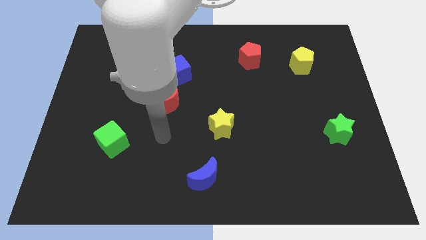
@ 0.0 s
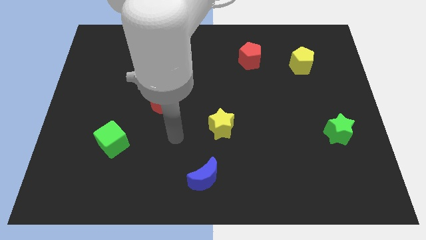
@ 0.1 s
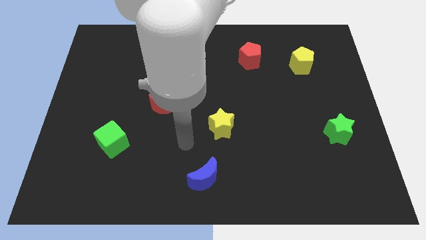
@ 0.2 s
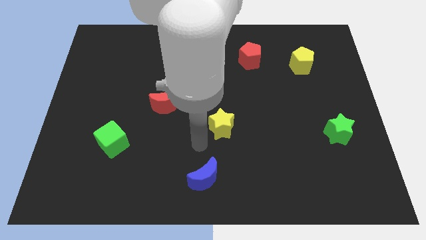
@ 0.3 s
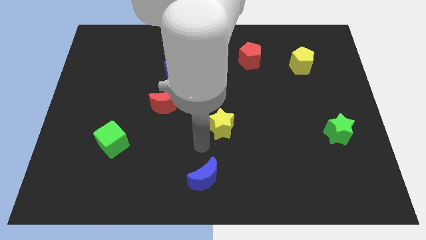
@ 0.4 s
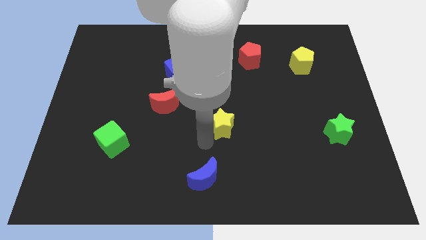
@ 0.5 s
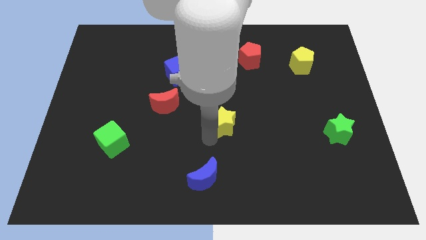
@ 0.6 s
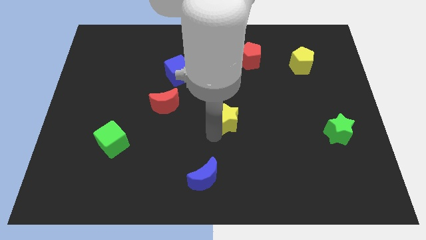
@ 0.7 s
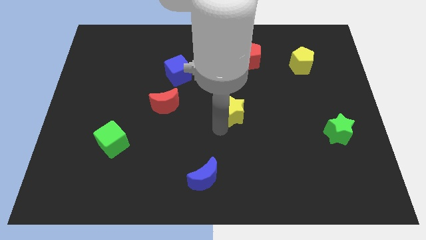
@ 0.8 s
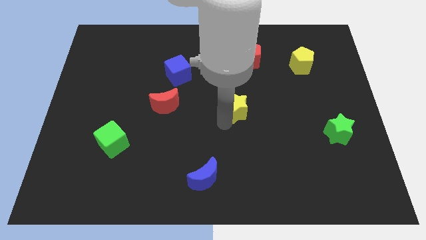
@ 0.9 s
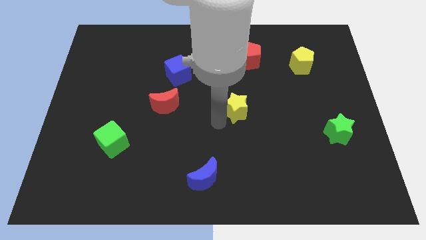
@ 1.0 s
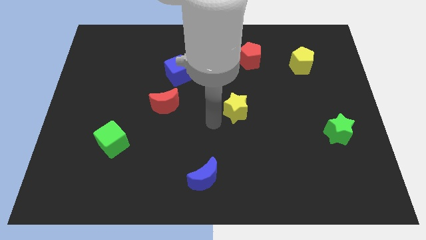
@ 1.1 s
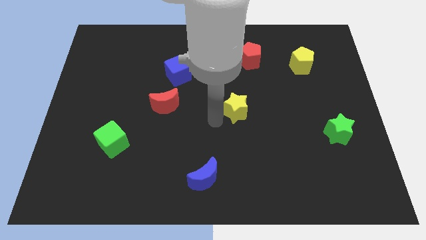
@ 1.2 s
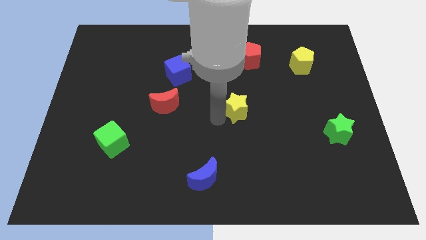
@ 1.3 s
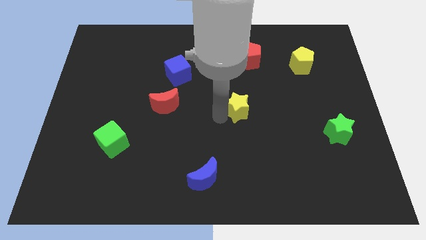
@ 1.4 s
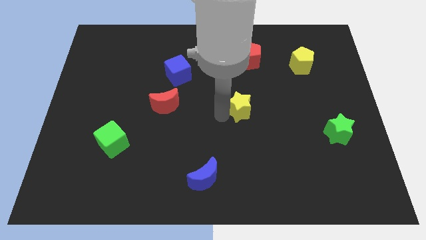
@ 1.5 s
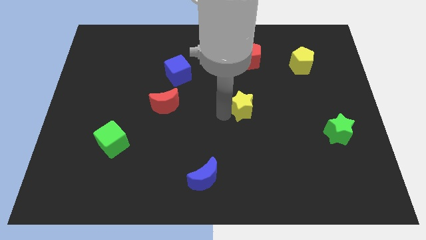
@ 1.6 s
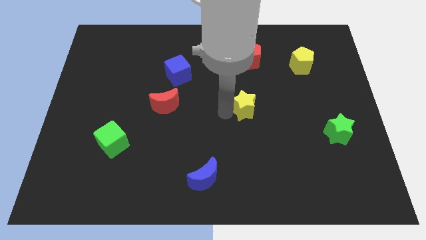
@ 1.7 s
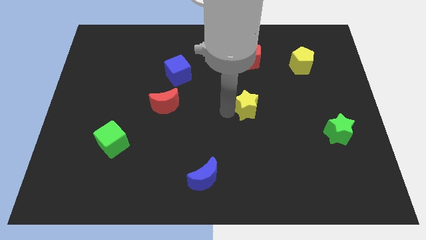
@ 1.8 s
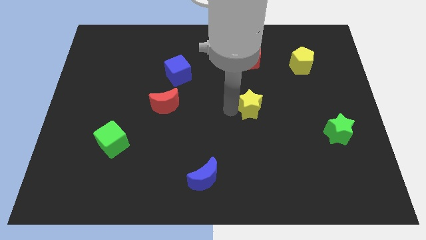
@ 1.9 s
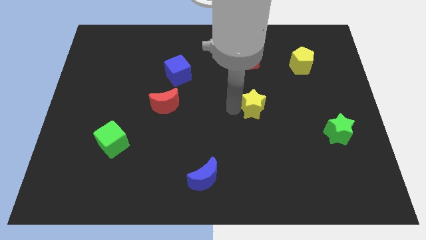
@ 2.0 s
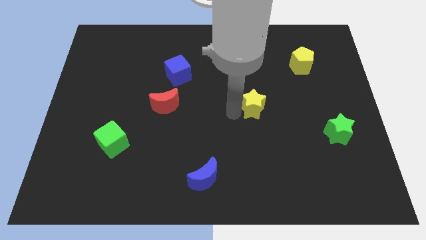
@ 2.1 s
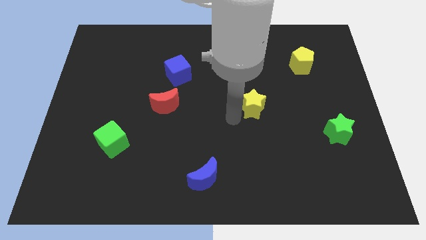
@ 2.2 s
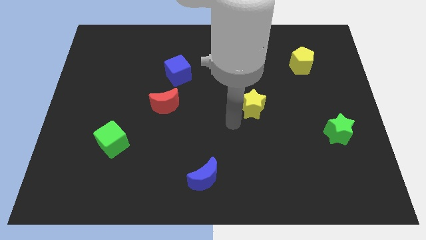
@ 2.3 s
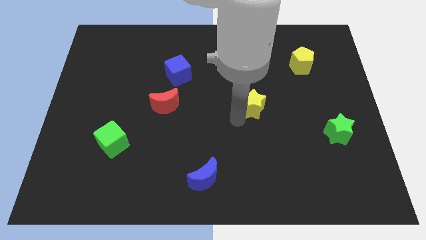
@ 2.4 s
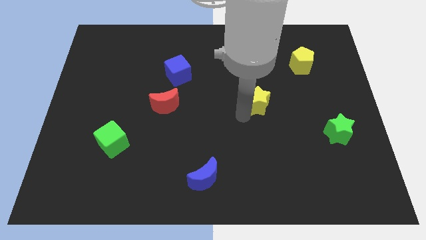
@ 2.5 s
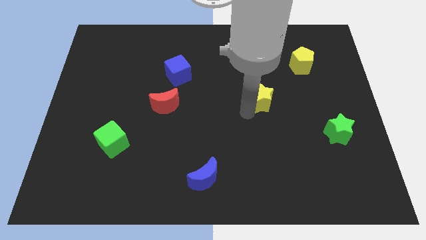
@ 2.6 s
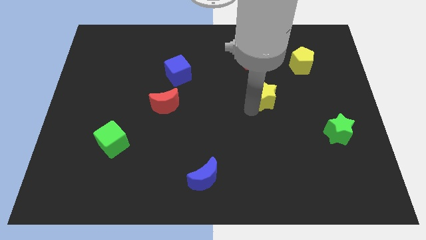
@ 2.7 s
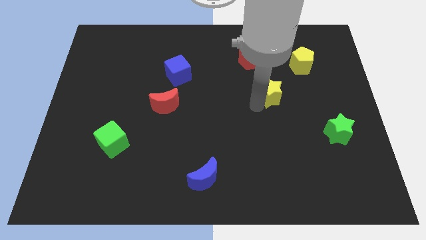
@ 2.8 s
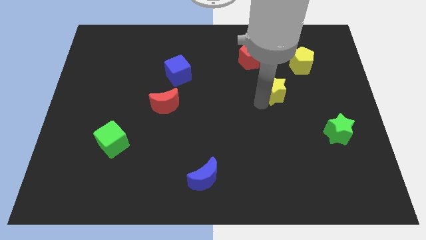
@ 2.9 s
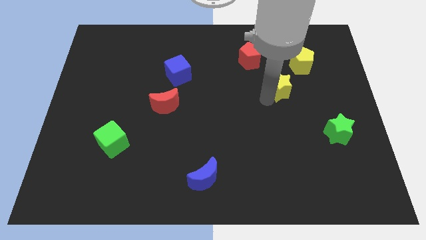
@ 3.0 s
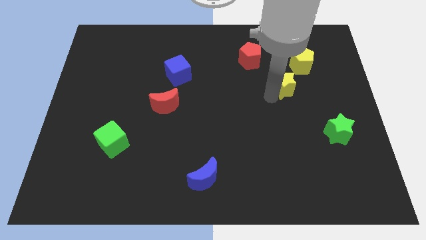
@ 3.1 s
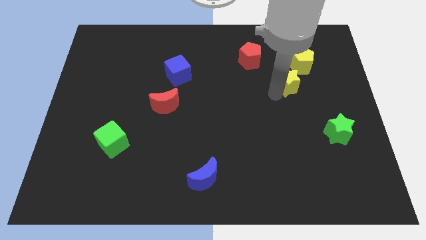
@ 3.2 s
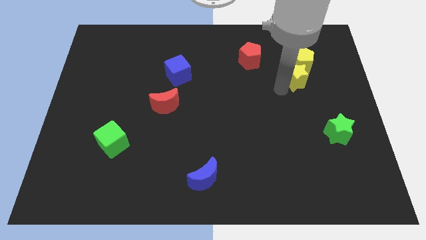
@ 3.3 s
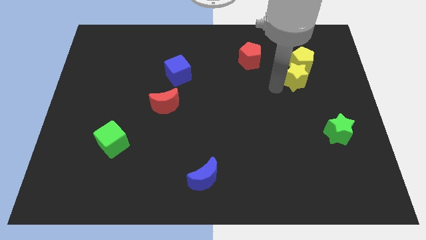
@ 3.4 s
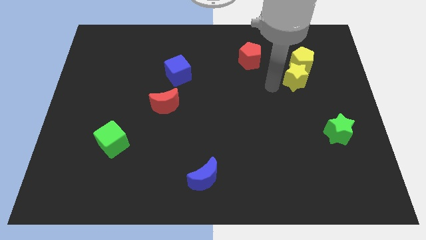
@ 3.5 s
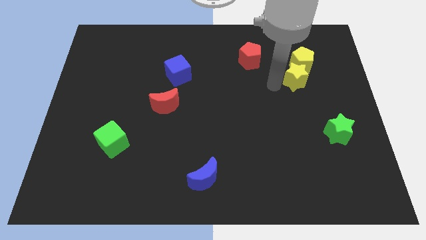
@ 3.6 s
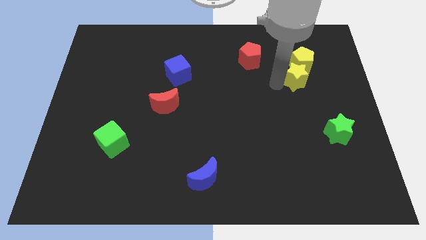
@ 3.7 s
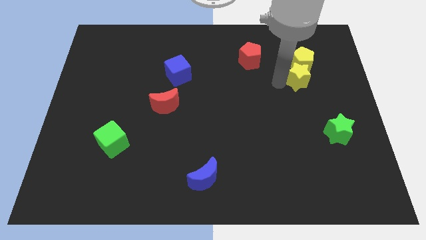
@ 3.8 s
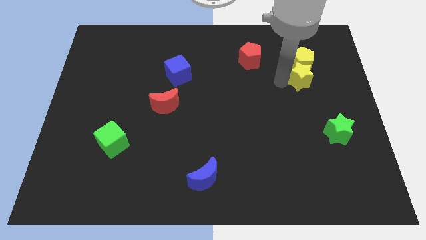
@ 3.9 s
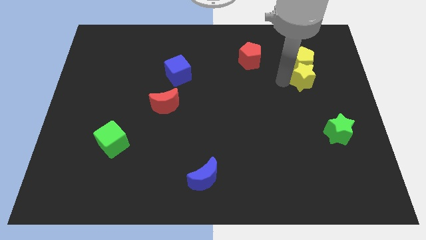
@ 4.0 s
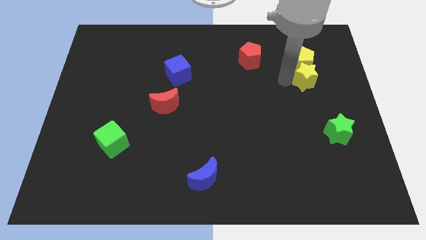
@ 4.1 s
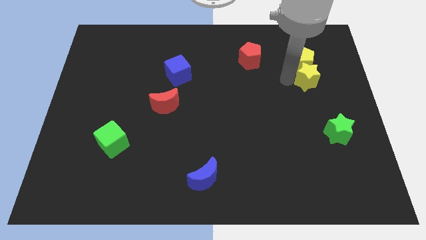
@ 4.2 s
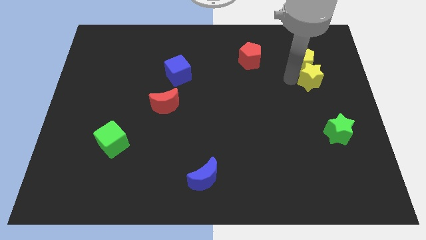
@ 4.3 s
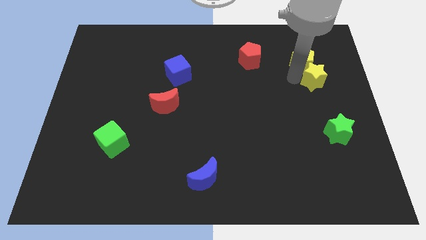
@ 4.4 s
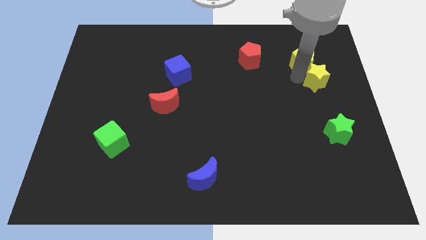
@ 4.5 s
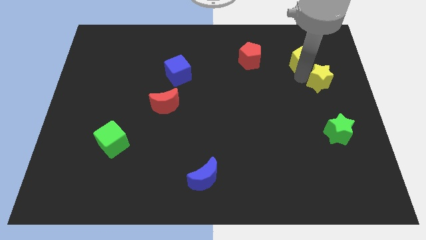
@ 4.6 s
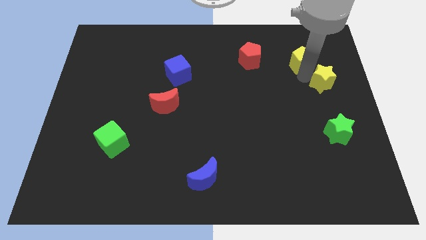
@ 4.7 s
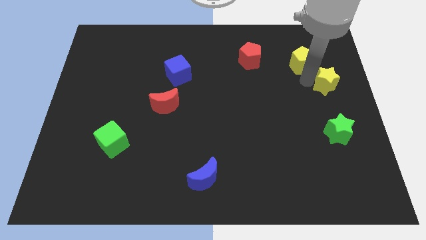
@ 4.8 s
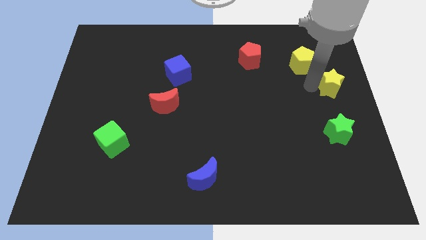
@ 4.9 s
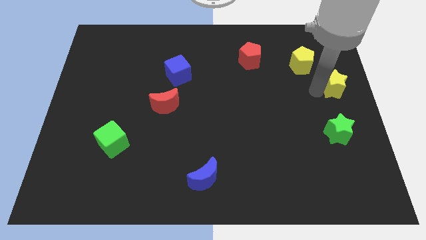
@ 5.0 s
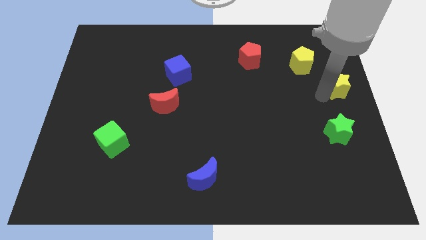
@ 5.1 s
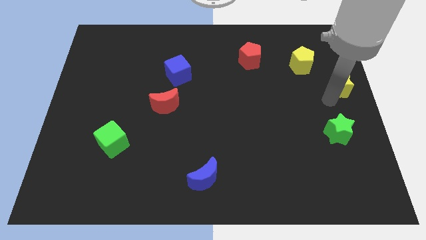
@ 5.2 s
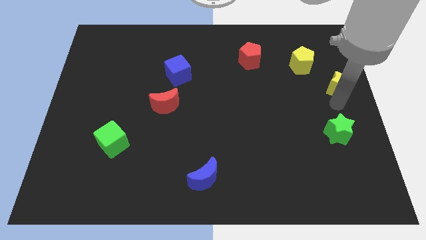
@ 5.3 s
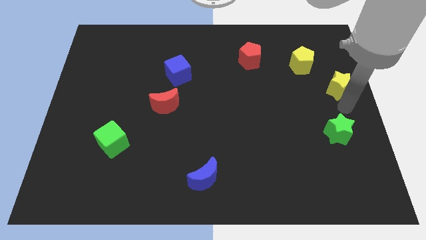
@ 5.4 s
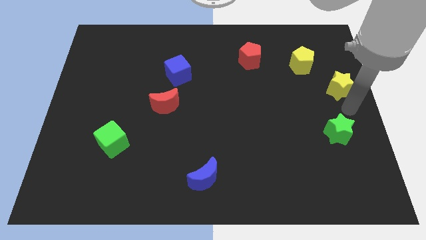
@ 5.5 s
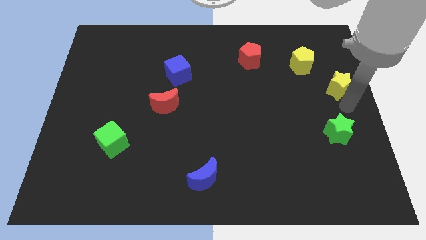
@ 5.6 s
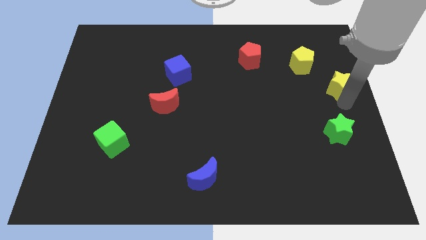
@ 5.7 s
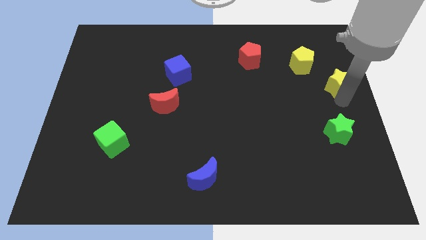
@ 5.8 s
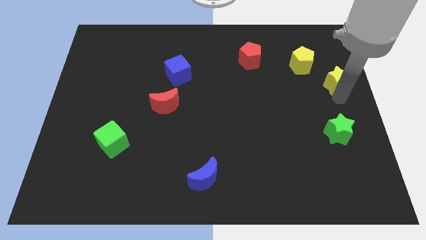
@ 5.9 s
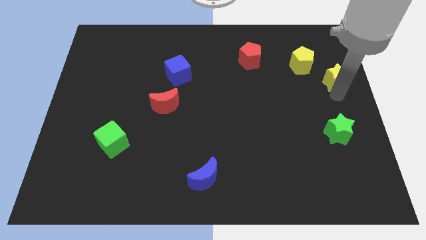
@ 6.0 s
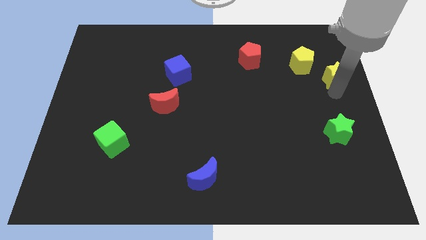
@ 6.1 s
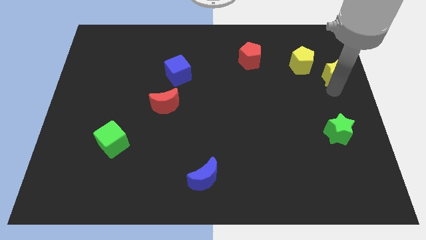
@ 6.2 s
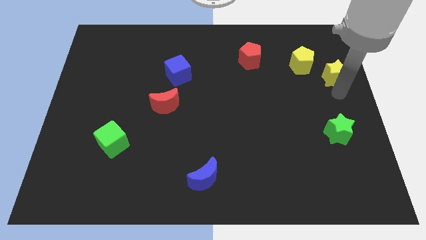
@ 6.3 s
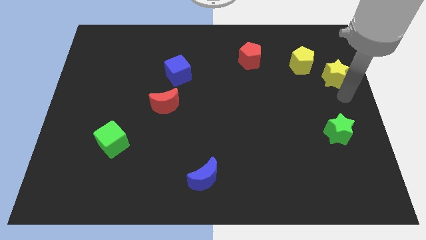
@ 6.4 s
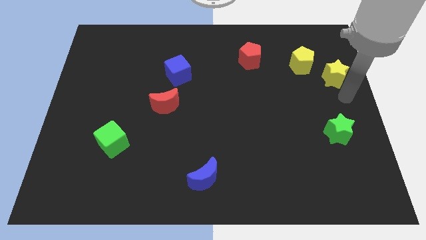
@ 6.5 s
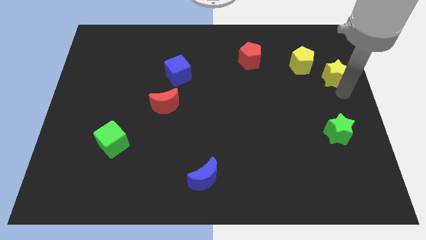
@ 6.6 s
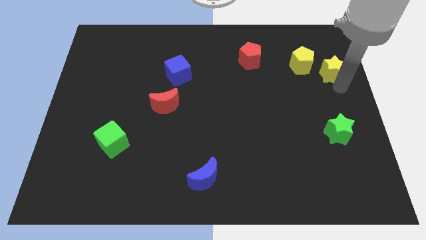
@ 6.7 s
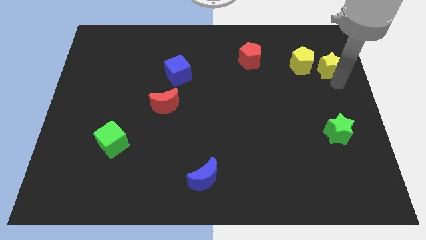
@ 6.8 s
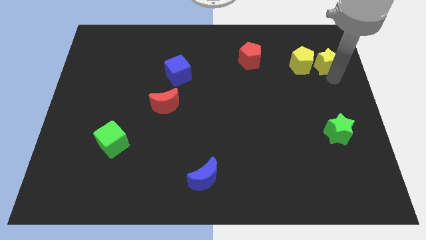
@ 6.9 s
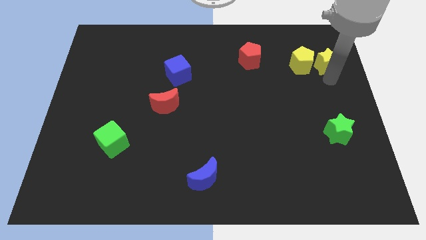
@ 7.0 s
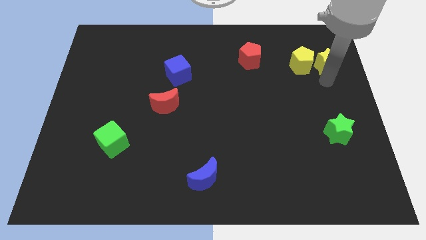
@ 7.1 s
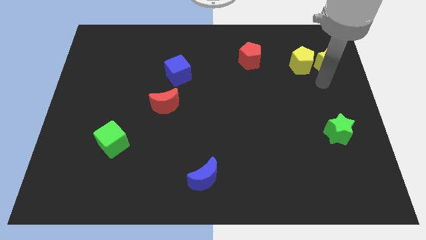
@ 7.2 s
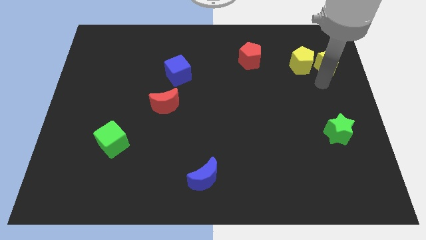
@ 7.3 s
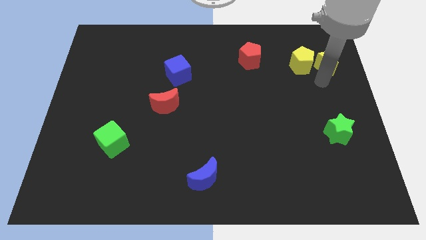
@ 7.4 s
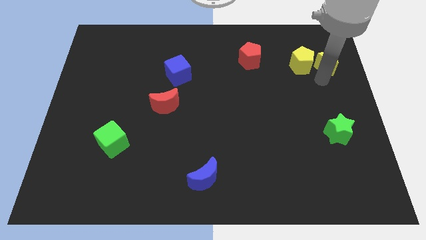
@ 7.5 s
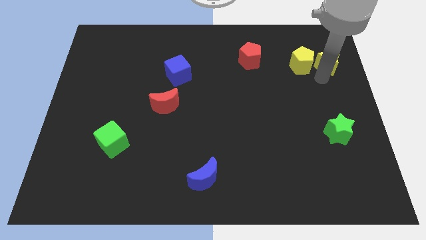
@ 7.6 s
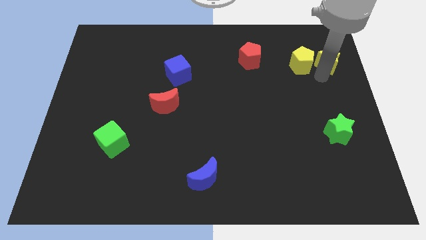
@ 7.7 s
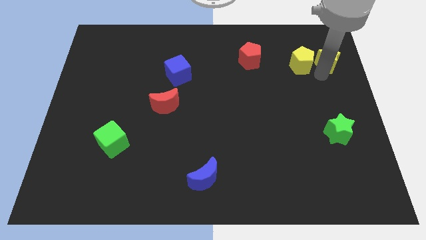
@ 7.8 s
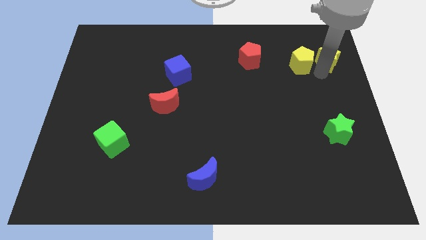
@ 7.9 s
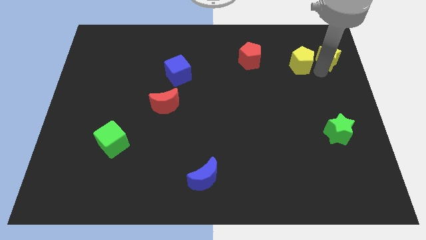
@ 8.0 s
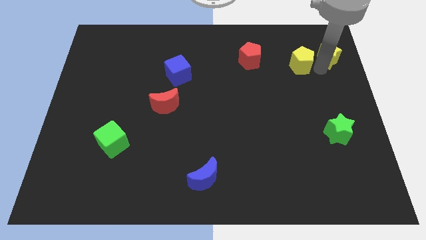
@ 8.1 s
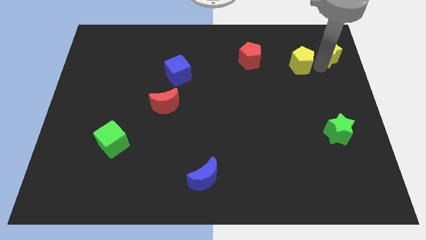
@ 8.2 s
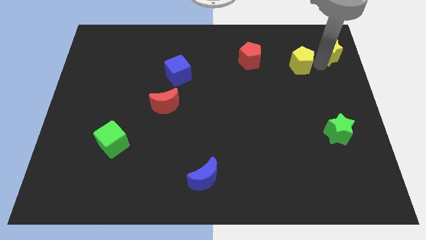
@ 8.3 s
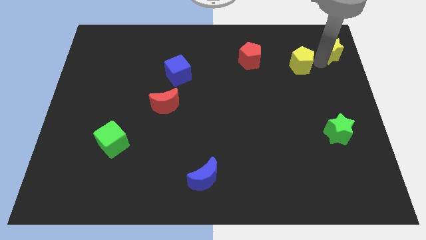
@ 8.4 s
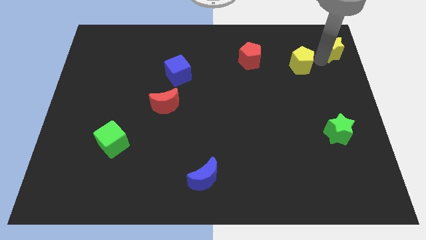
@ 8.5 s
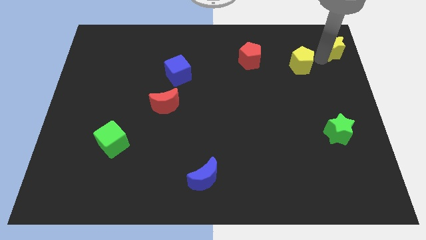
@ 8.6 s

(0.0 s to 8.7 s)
put the yellow star to the top right of the board
